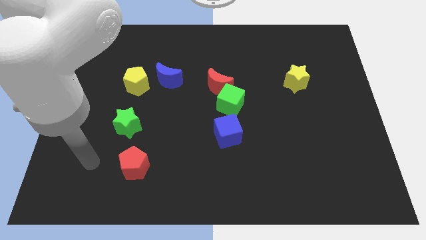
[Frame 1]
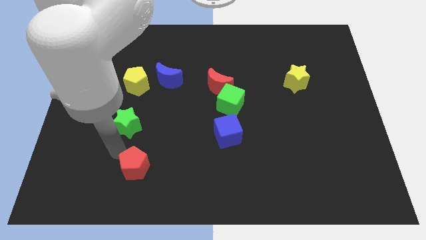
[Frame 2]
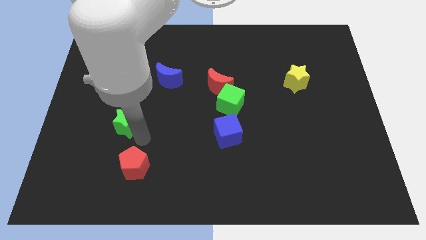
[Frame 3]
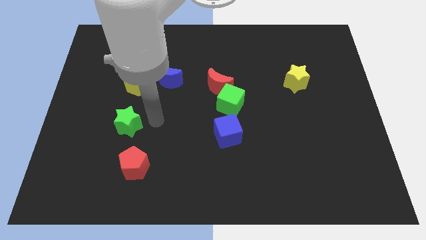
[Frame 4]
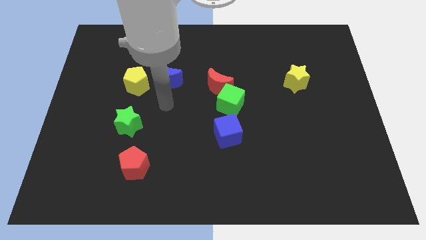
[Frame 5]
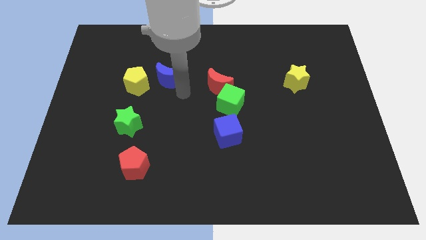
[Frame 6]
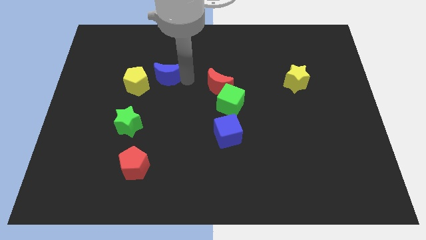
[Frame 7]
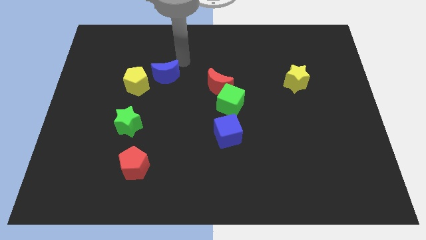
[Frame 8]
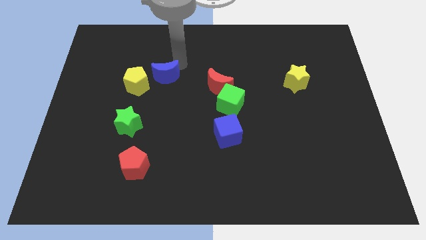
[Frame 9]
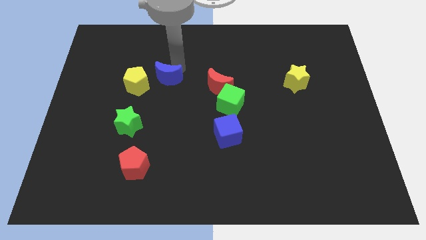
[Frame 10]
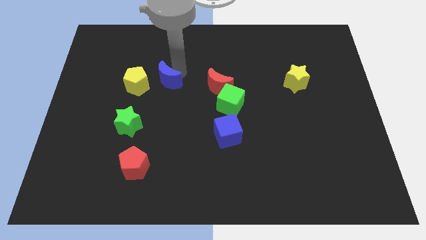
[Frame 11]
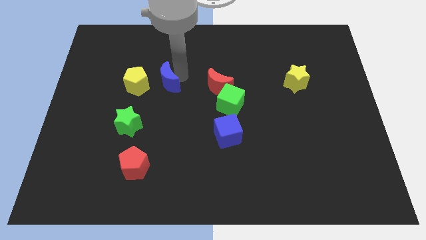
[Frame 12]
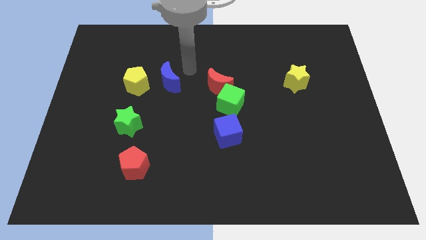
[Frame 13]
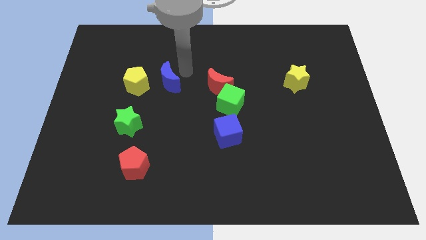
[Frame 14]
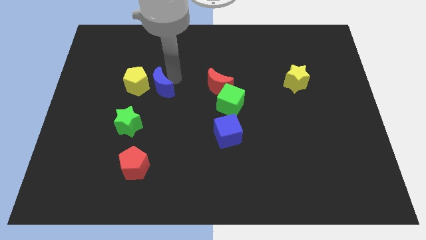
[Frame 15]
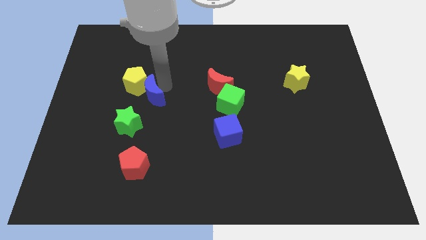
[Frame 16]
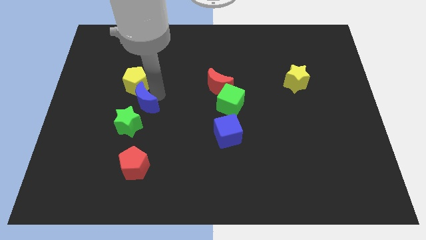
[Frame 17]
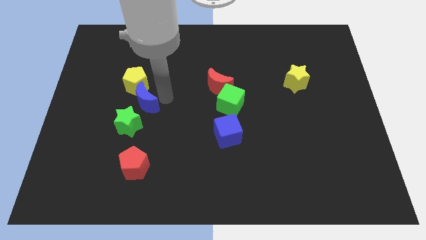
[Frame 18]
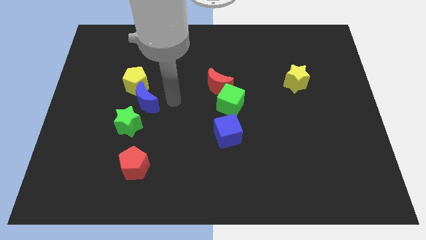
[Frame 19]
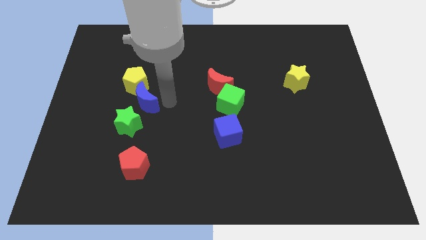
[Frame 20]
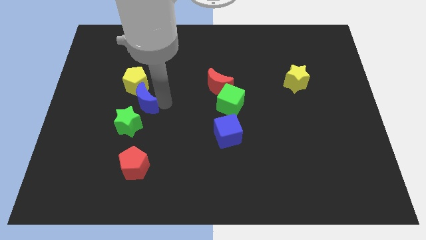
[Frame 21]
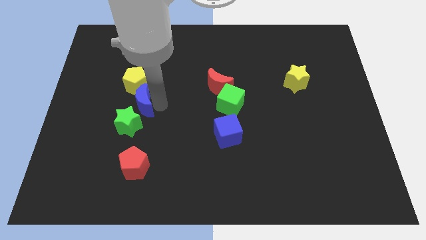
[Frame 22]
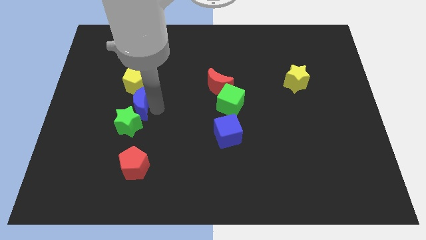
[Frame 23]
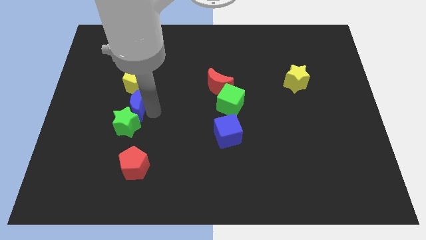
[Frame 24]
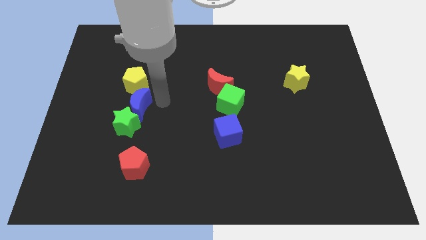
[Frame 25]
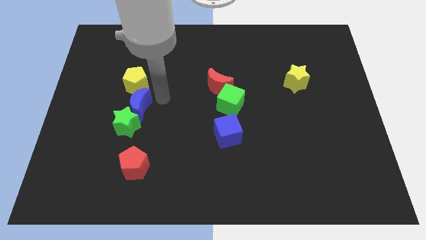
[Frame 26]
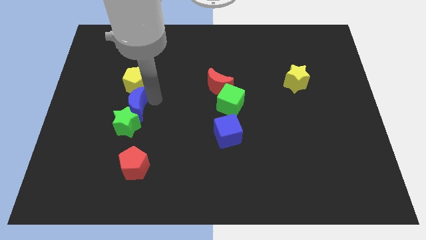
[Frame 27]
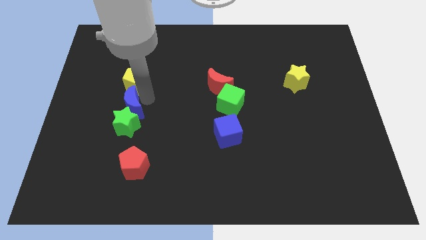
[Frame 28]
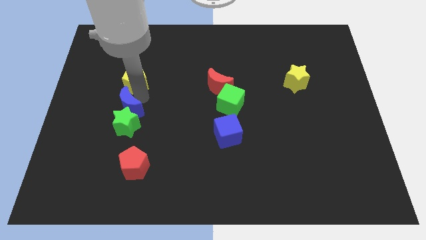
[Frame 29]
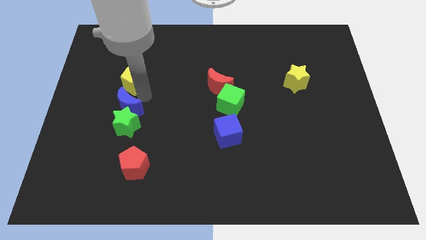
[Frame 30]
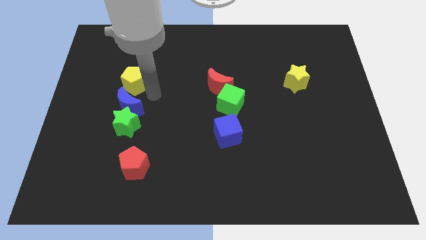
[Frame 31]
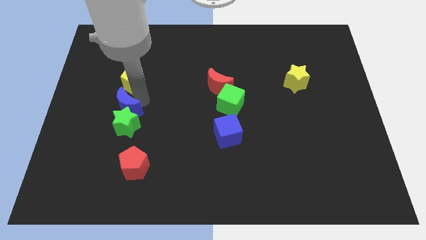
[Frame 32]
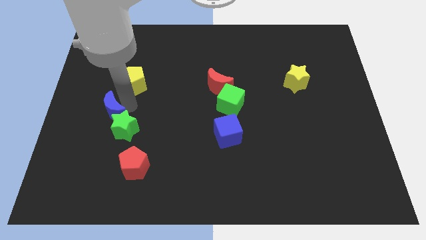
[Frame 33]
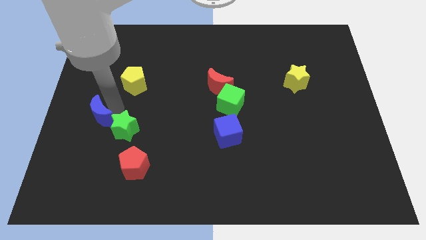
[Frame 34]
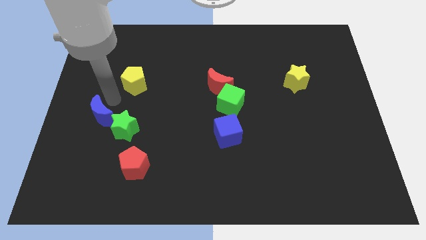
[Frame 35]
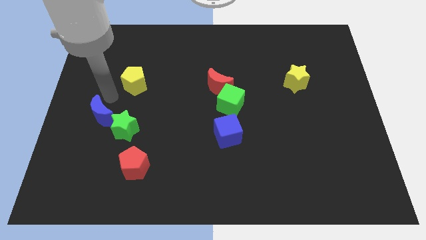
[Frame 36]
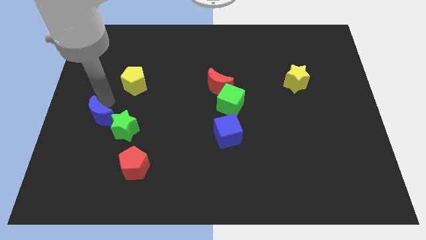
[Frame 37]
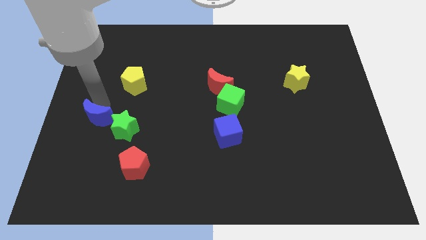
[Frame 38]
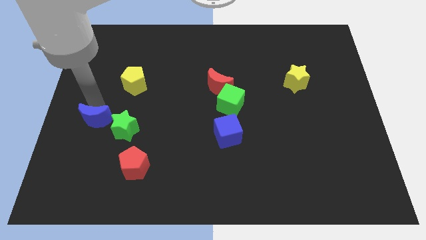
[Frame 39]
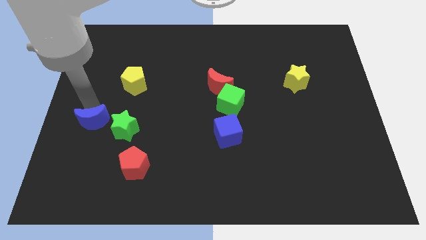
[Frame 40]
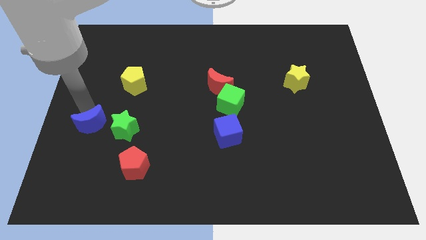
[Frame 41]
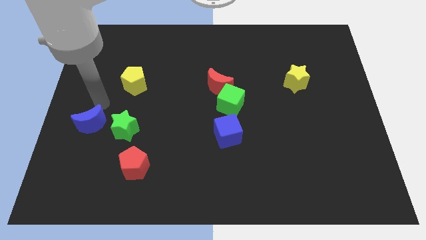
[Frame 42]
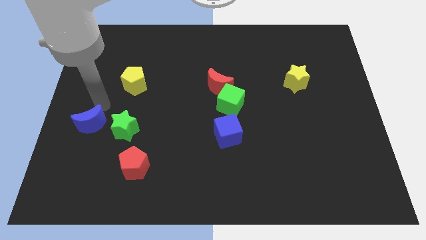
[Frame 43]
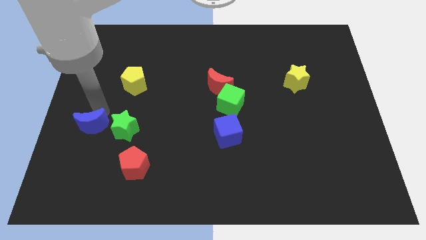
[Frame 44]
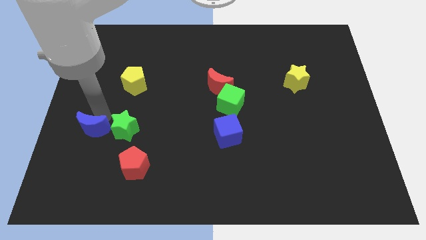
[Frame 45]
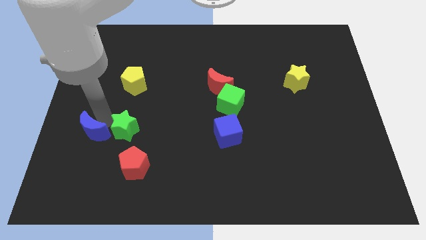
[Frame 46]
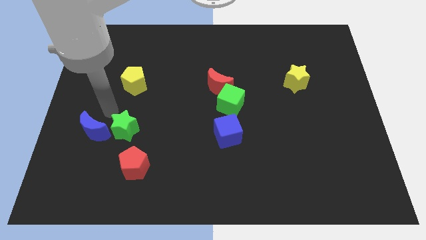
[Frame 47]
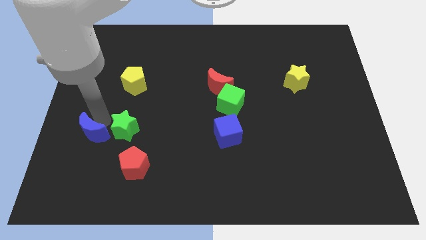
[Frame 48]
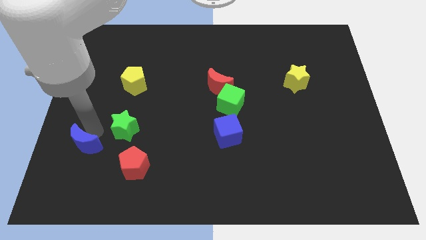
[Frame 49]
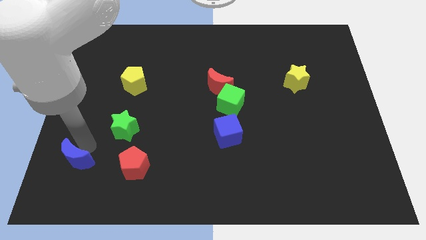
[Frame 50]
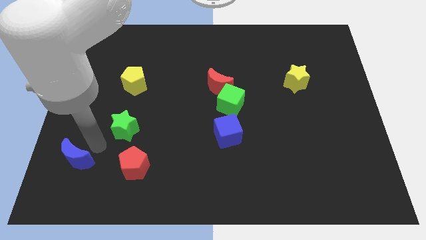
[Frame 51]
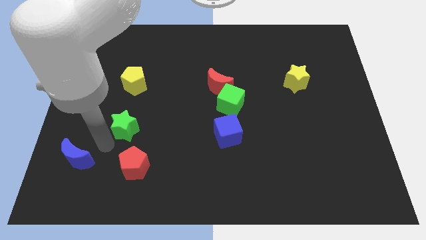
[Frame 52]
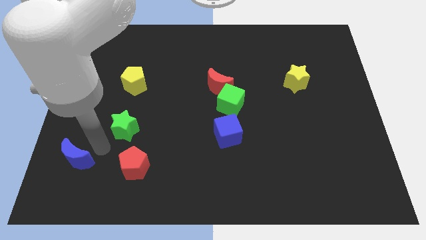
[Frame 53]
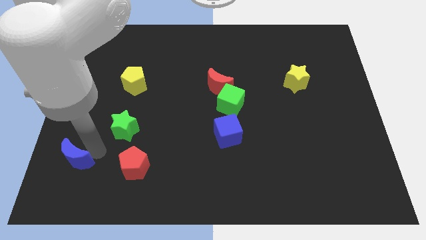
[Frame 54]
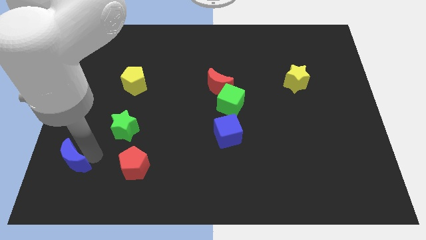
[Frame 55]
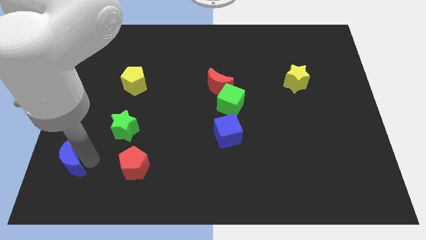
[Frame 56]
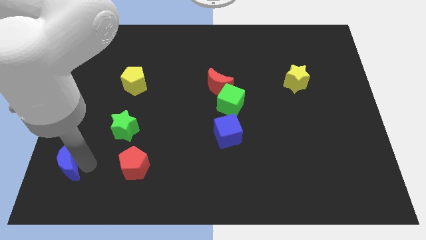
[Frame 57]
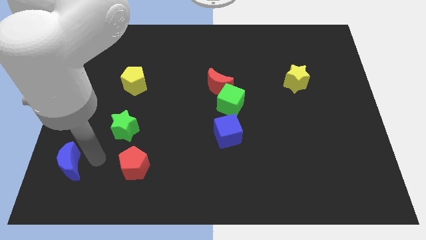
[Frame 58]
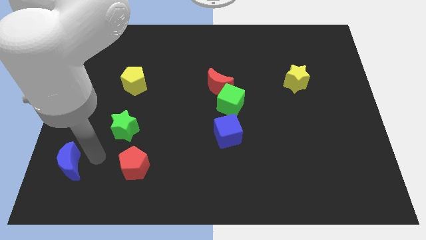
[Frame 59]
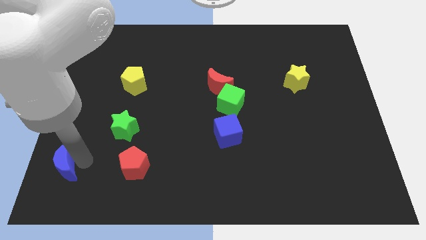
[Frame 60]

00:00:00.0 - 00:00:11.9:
slide the blue moon to the bottom left corner

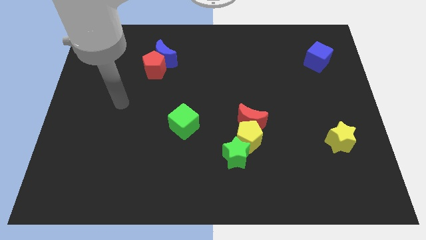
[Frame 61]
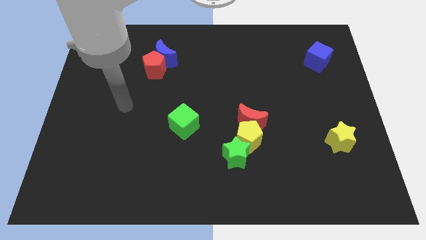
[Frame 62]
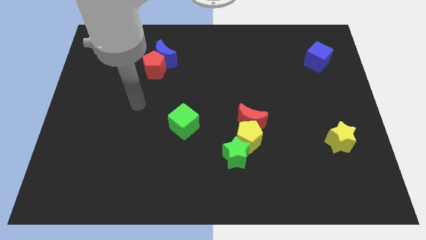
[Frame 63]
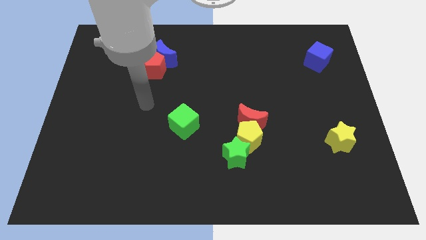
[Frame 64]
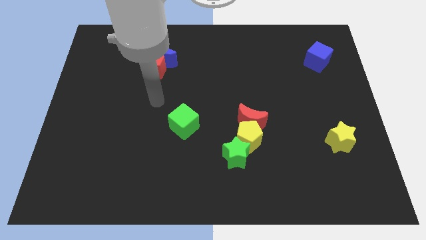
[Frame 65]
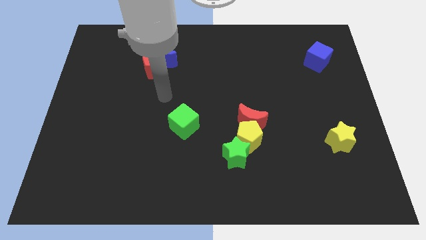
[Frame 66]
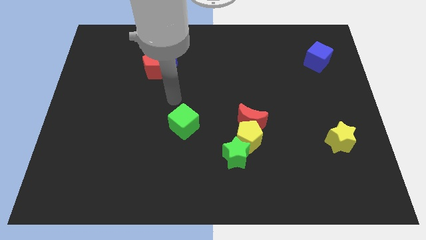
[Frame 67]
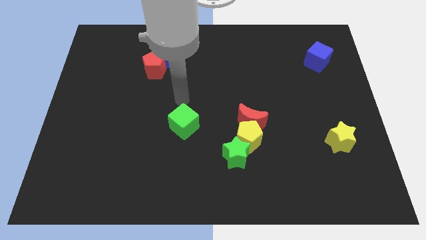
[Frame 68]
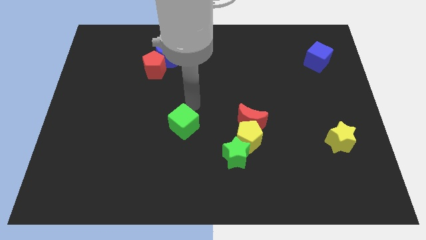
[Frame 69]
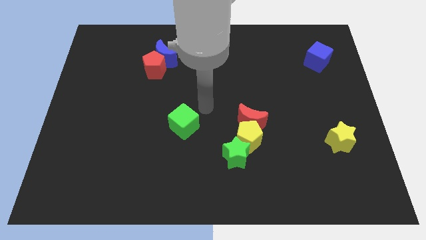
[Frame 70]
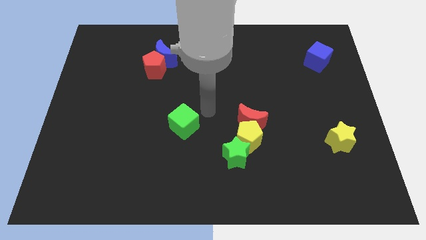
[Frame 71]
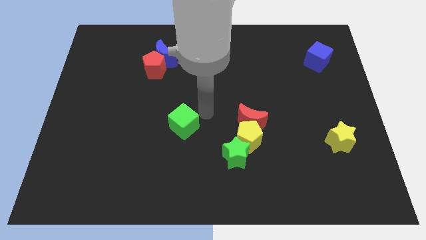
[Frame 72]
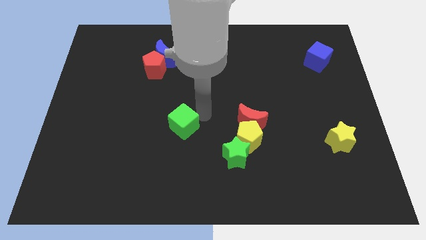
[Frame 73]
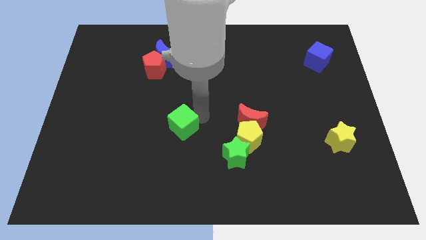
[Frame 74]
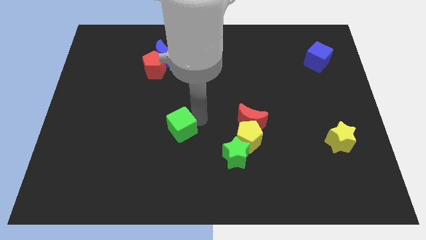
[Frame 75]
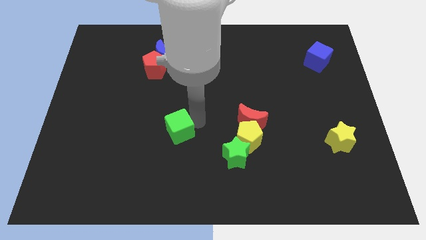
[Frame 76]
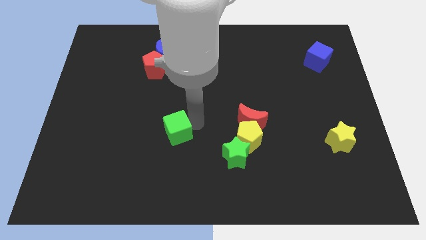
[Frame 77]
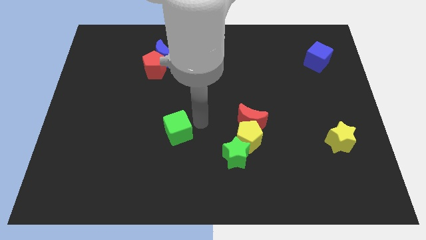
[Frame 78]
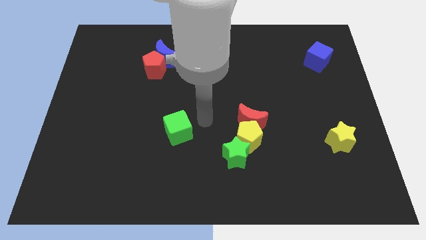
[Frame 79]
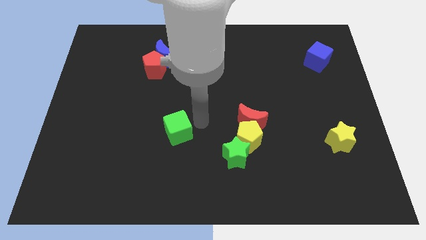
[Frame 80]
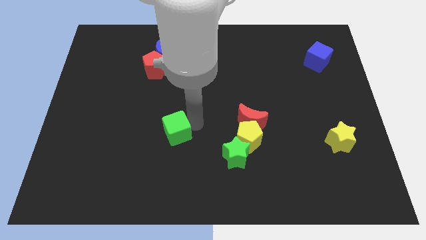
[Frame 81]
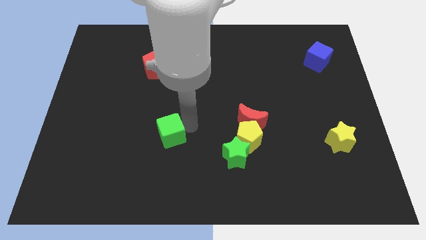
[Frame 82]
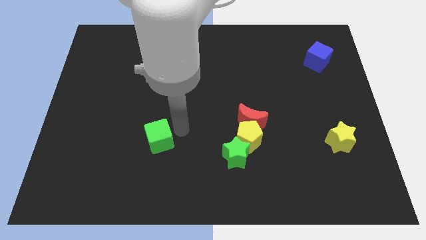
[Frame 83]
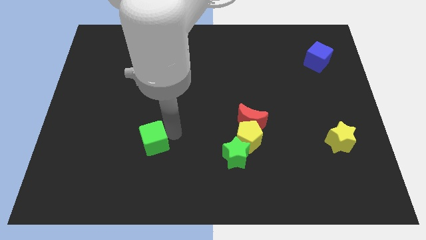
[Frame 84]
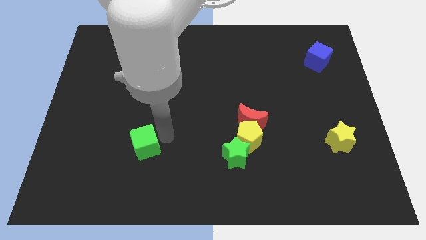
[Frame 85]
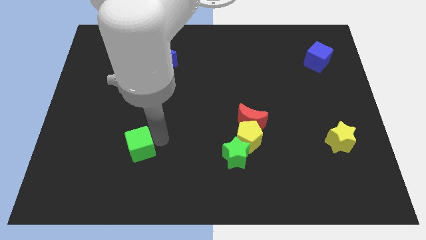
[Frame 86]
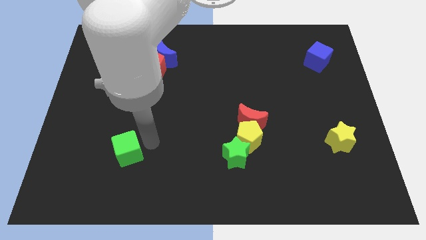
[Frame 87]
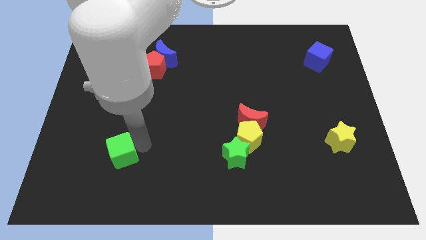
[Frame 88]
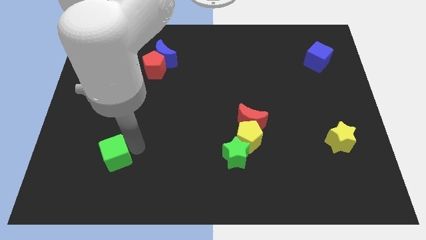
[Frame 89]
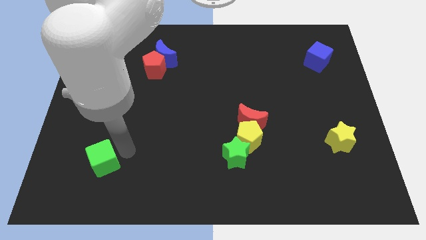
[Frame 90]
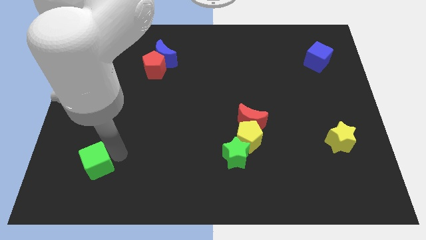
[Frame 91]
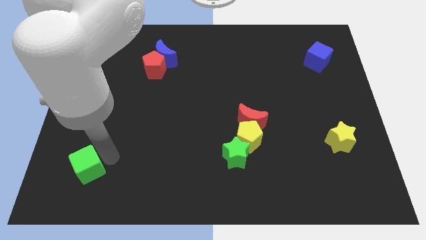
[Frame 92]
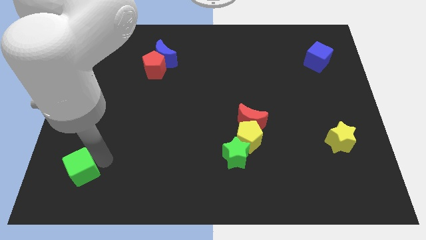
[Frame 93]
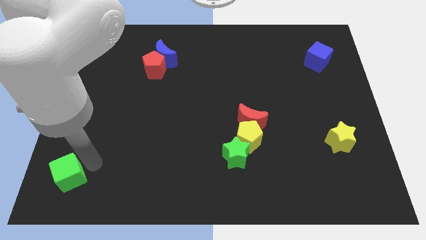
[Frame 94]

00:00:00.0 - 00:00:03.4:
put the green cube to the bottom left corner
